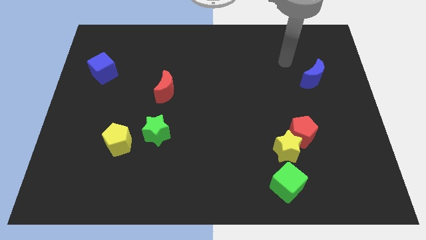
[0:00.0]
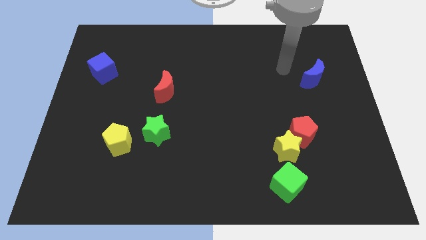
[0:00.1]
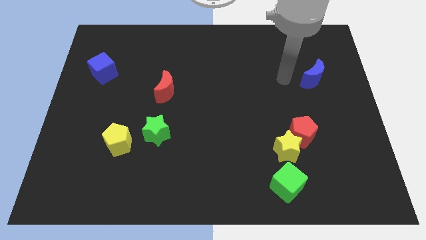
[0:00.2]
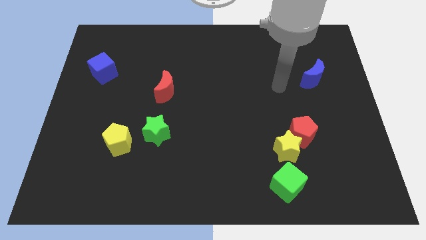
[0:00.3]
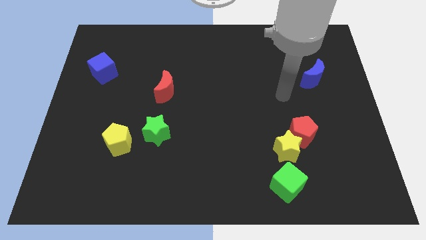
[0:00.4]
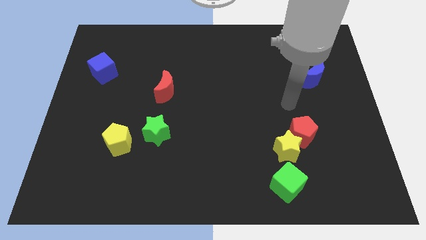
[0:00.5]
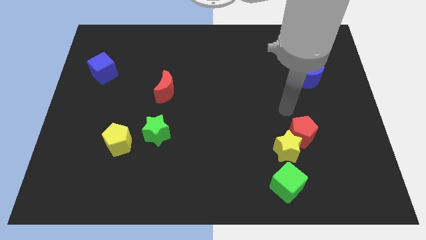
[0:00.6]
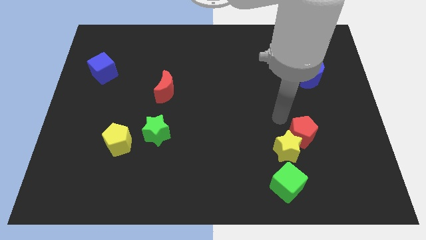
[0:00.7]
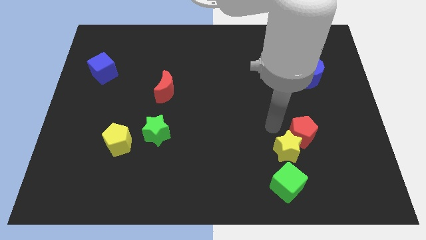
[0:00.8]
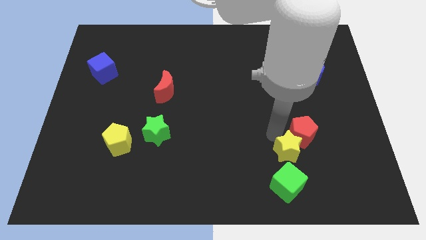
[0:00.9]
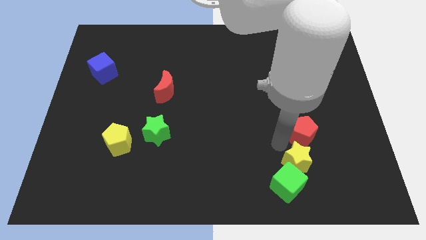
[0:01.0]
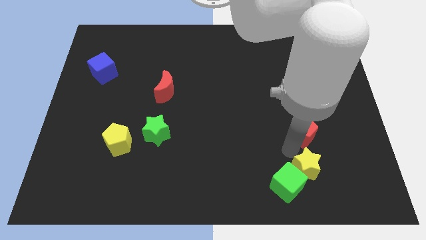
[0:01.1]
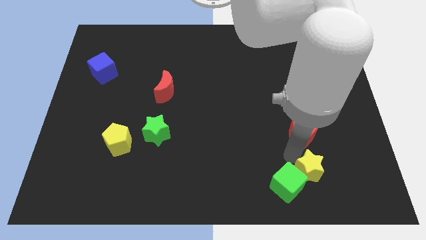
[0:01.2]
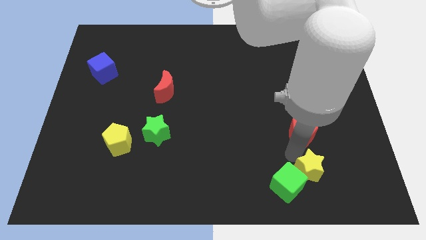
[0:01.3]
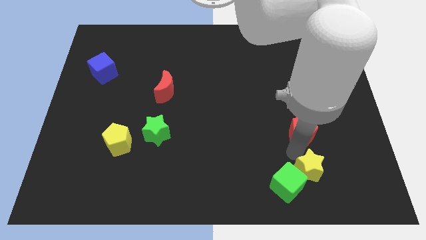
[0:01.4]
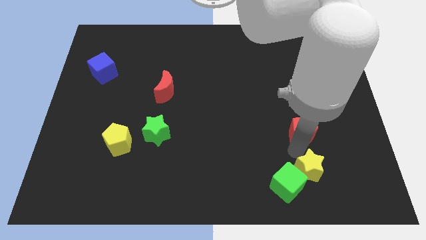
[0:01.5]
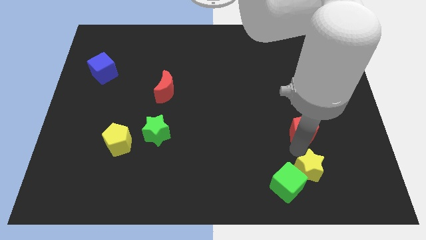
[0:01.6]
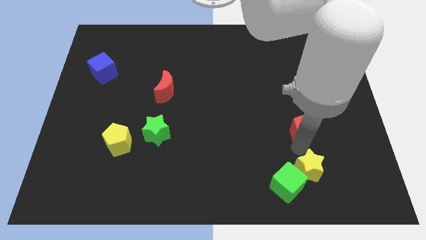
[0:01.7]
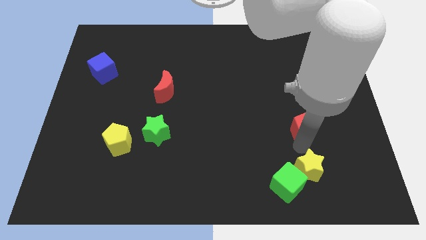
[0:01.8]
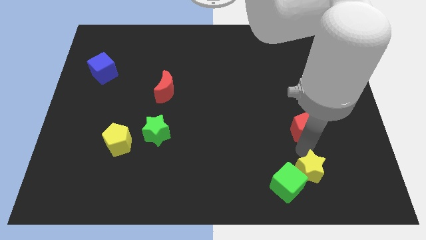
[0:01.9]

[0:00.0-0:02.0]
move the red pentagon away from the yellow star

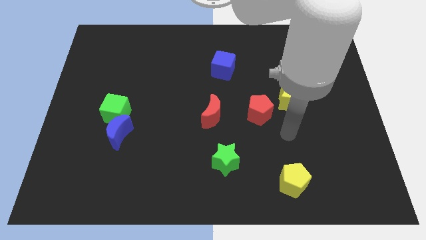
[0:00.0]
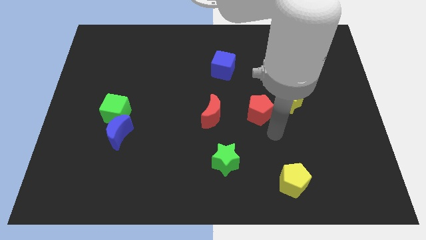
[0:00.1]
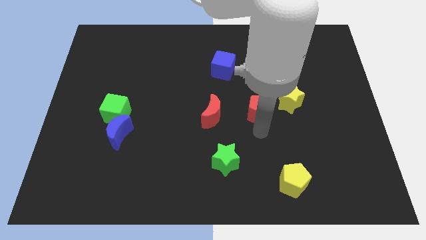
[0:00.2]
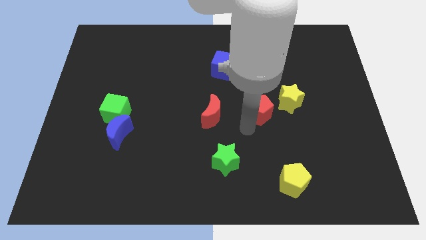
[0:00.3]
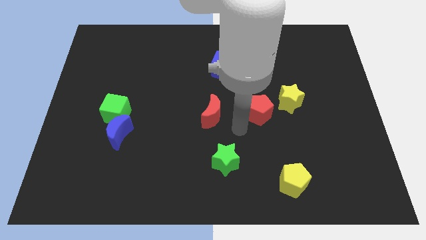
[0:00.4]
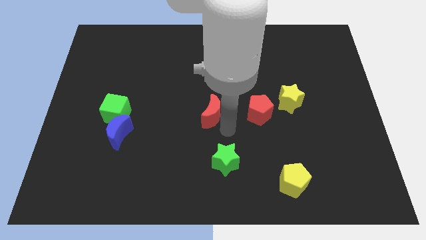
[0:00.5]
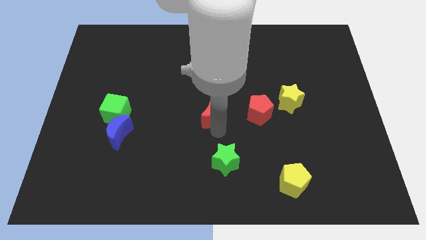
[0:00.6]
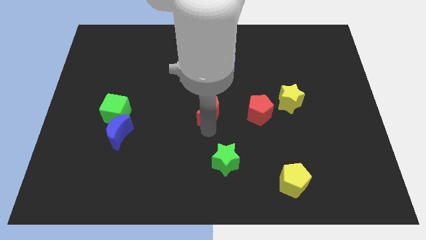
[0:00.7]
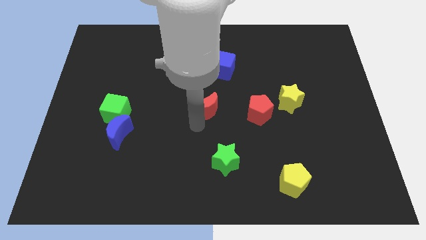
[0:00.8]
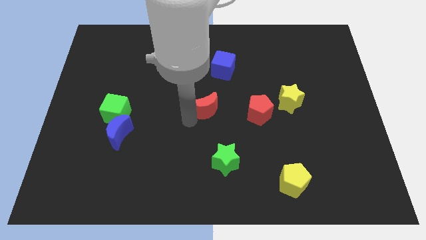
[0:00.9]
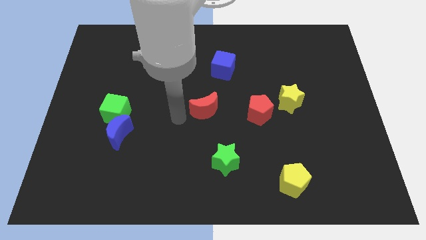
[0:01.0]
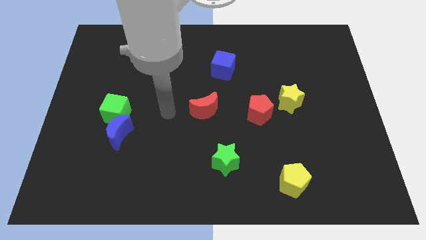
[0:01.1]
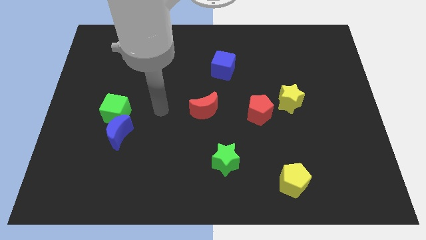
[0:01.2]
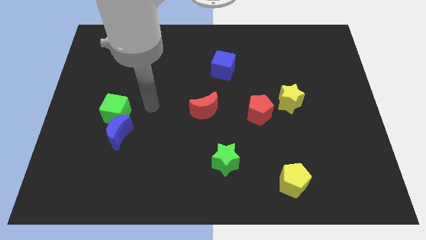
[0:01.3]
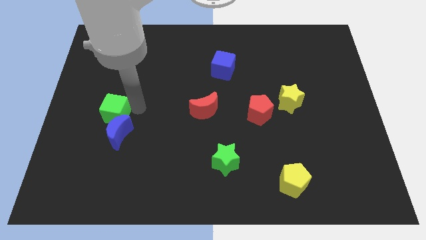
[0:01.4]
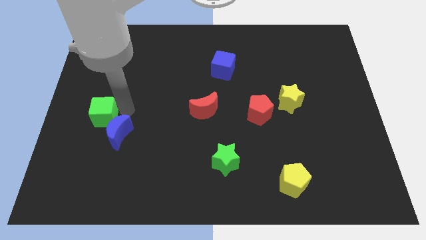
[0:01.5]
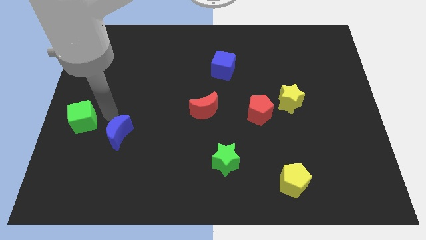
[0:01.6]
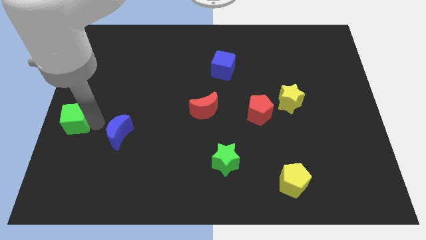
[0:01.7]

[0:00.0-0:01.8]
separate the blue moon from the green cube

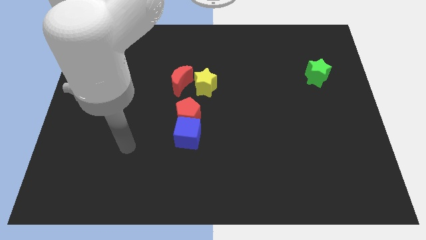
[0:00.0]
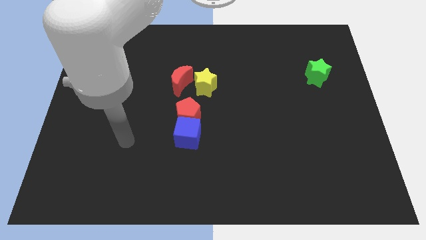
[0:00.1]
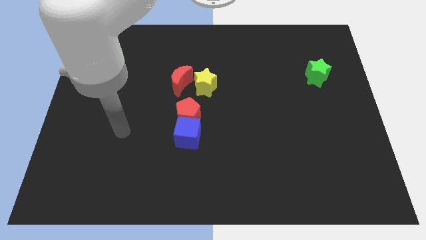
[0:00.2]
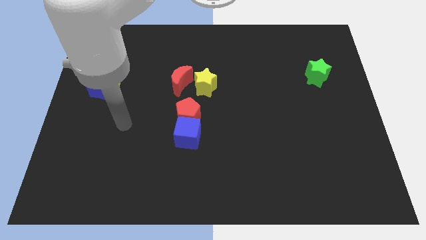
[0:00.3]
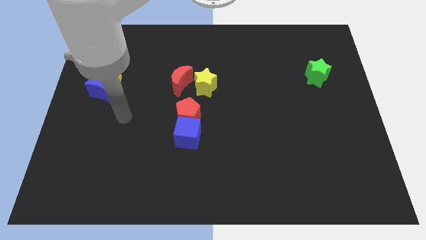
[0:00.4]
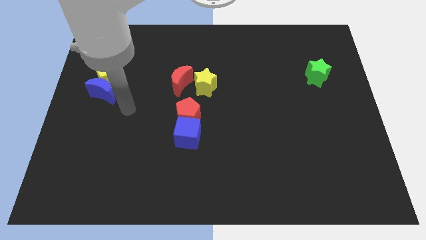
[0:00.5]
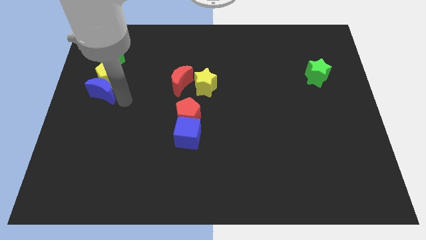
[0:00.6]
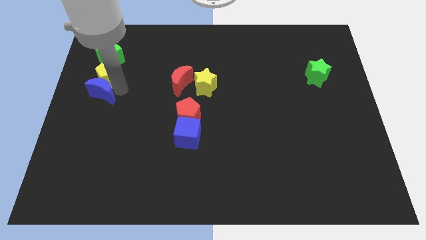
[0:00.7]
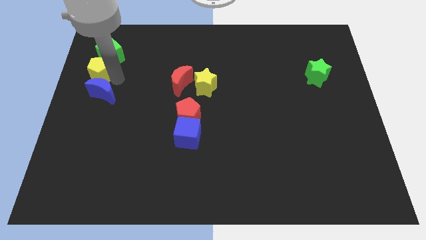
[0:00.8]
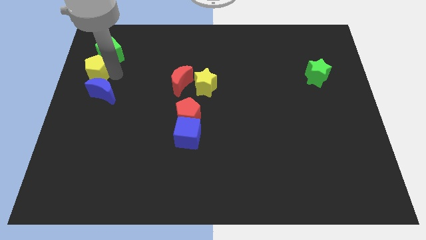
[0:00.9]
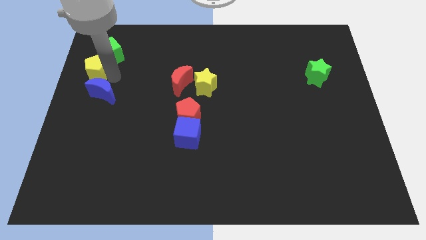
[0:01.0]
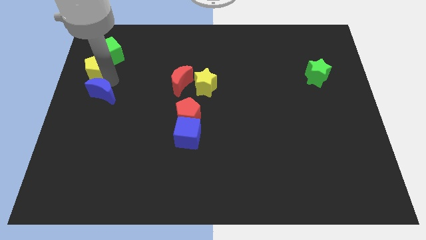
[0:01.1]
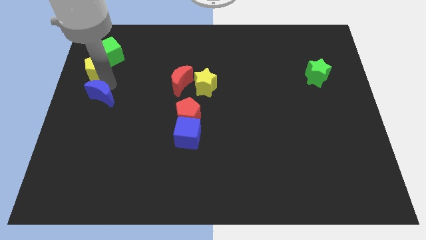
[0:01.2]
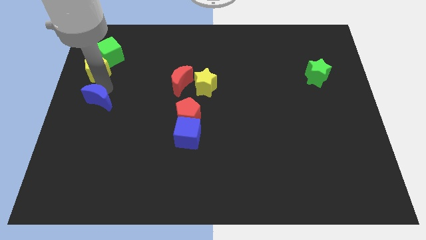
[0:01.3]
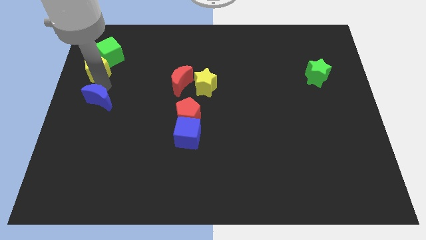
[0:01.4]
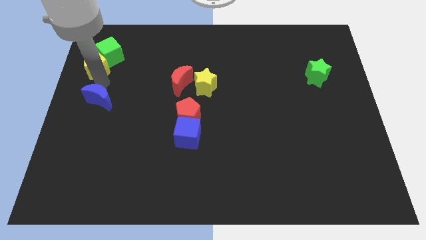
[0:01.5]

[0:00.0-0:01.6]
separate the blue moon from the yellow pentagon

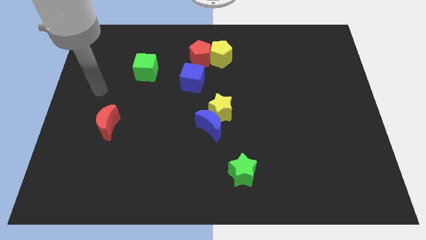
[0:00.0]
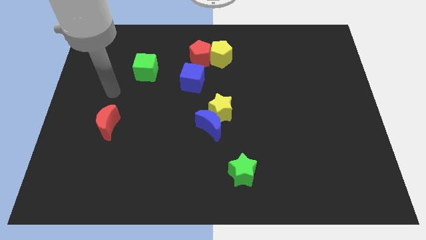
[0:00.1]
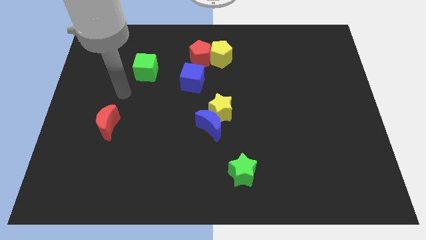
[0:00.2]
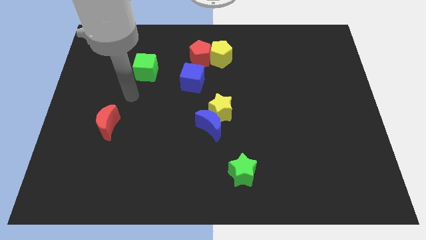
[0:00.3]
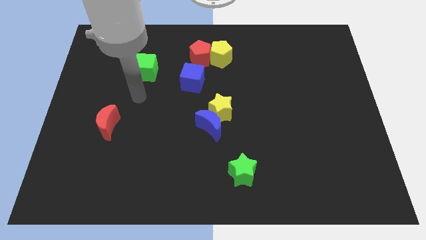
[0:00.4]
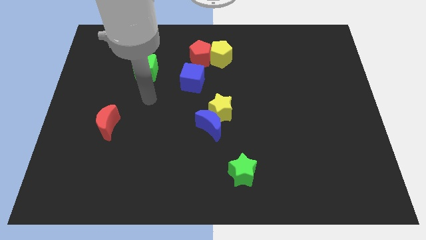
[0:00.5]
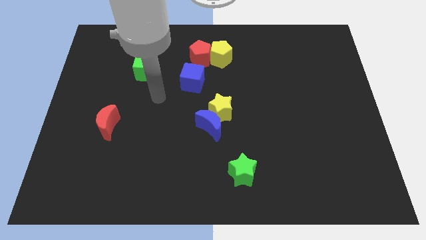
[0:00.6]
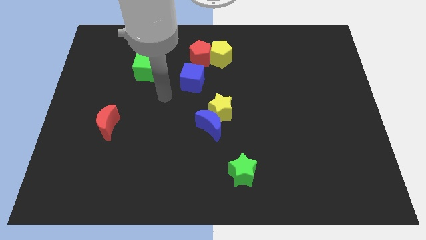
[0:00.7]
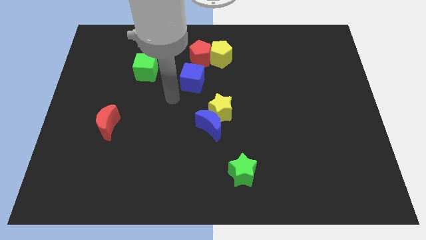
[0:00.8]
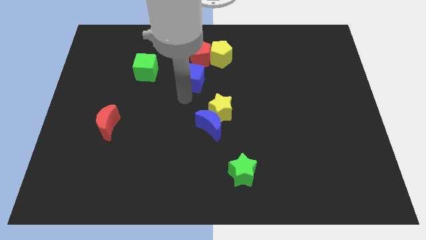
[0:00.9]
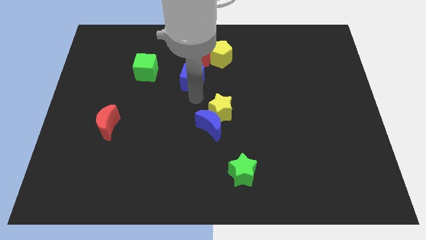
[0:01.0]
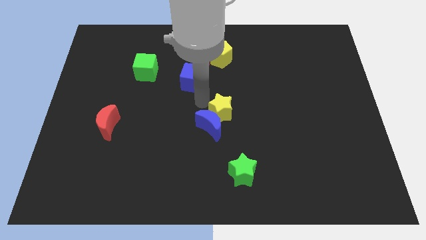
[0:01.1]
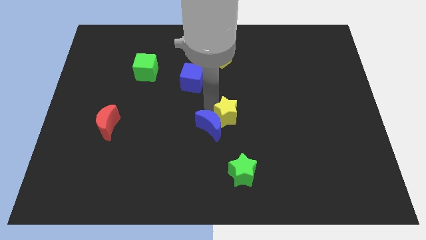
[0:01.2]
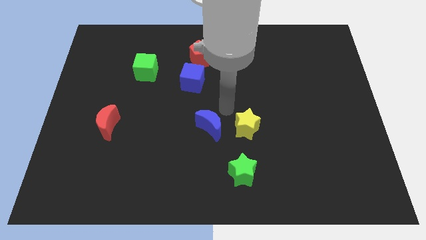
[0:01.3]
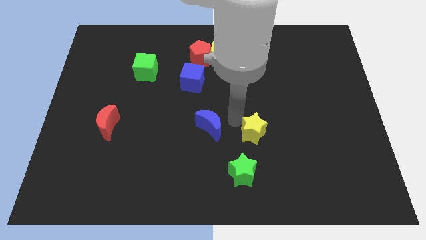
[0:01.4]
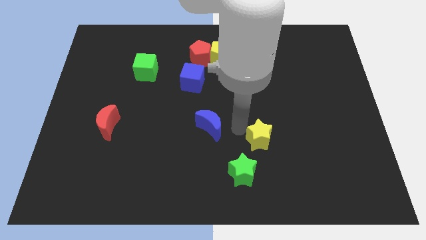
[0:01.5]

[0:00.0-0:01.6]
pull the blue moon apart from the yellow star

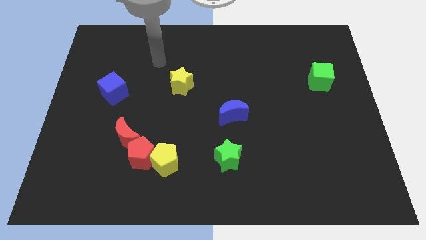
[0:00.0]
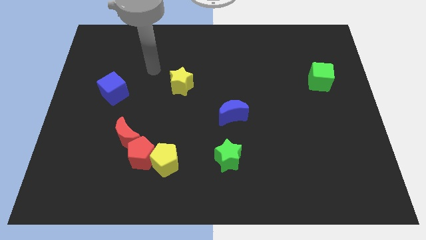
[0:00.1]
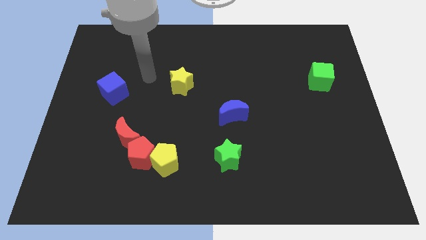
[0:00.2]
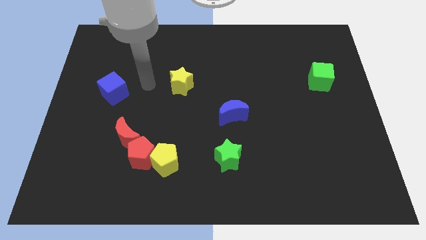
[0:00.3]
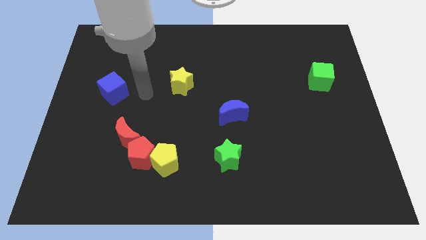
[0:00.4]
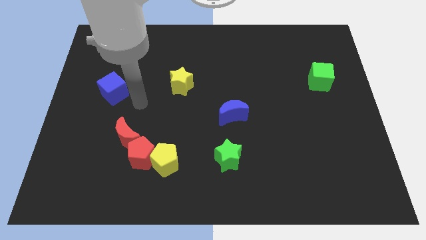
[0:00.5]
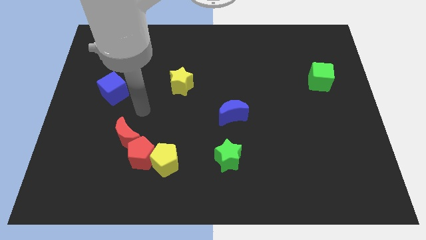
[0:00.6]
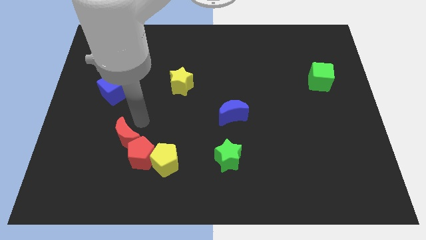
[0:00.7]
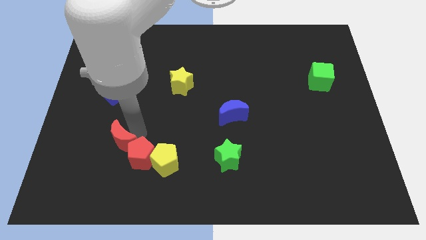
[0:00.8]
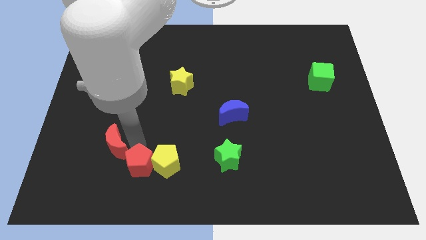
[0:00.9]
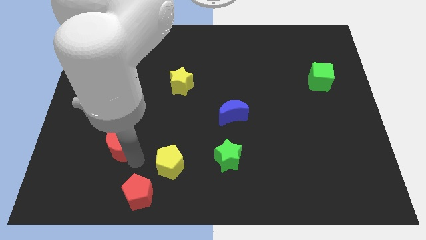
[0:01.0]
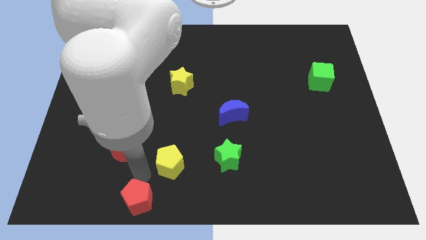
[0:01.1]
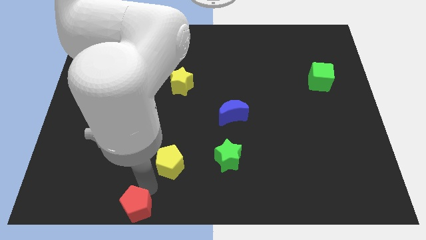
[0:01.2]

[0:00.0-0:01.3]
separate the yellow pentagon from the red pentagon

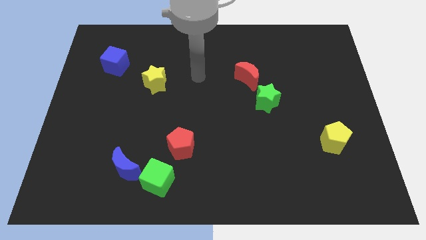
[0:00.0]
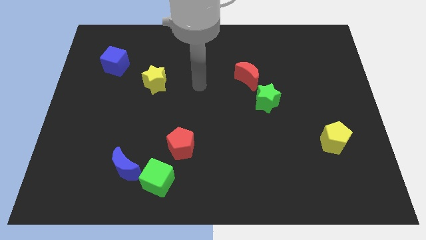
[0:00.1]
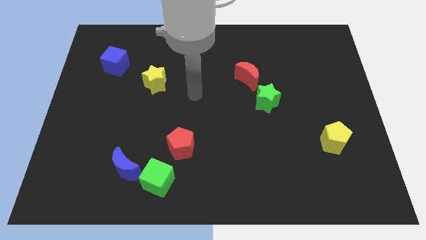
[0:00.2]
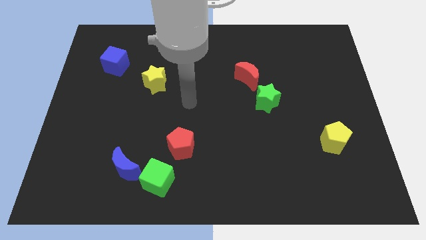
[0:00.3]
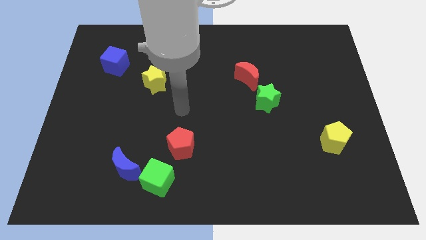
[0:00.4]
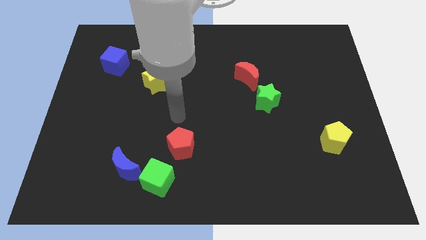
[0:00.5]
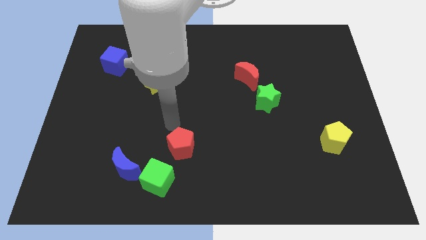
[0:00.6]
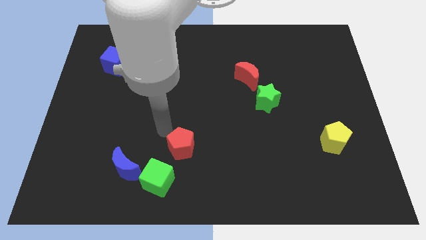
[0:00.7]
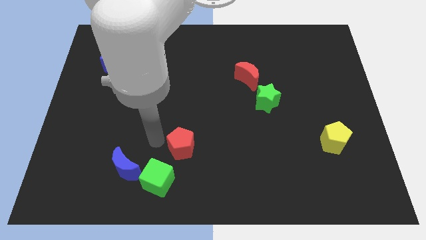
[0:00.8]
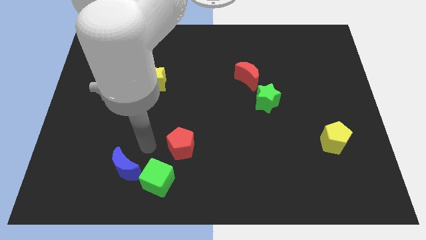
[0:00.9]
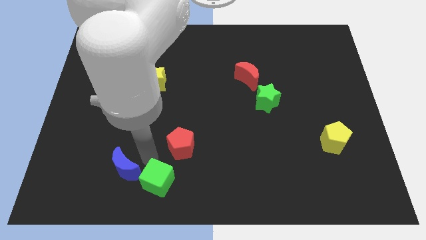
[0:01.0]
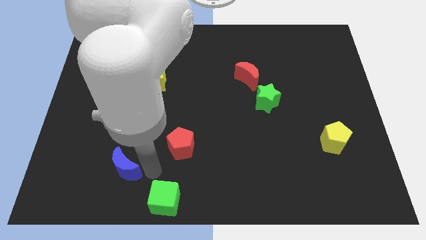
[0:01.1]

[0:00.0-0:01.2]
move the blue moon away from the green cube
